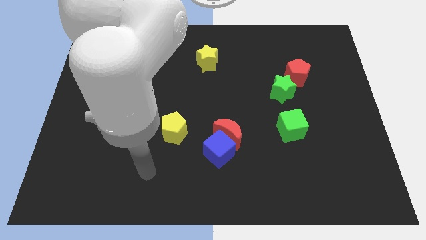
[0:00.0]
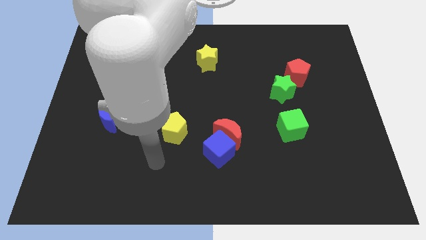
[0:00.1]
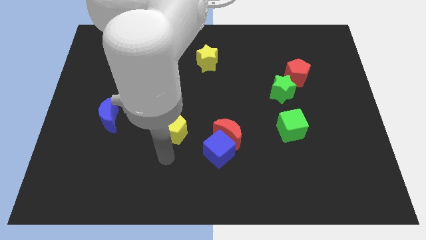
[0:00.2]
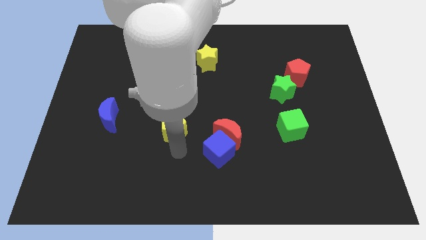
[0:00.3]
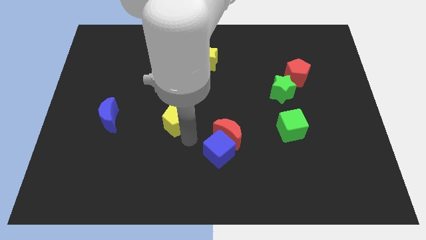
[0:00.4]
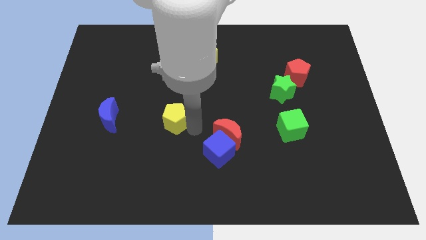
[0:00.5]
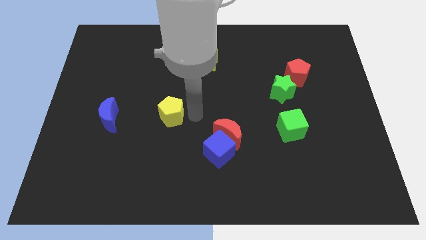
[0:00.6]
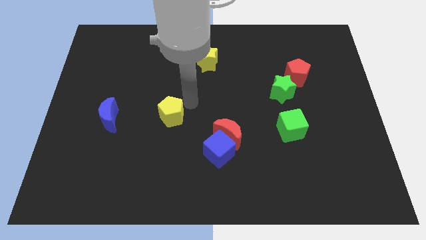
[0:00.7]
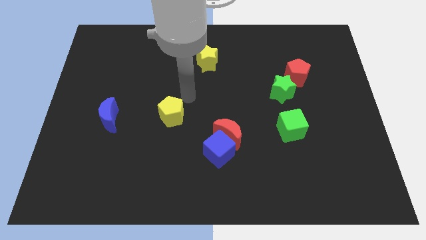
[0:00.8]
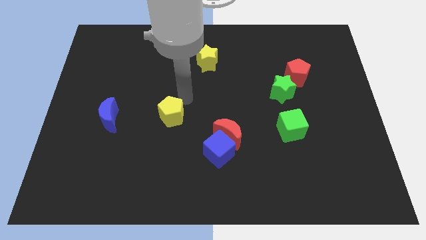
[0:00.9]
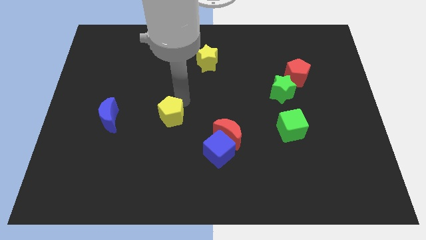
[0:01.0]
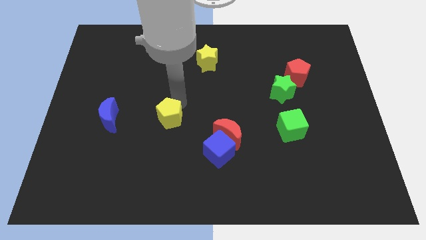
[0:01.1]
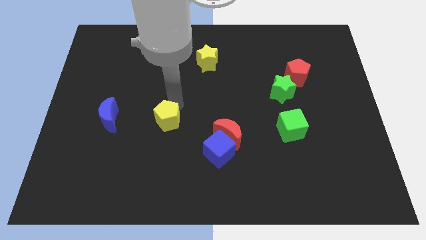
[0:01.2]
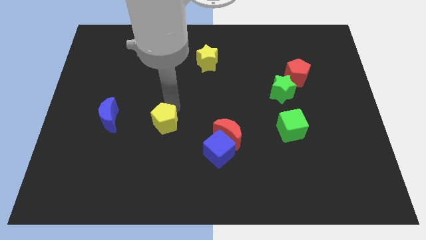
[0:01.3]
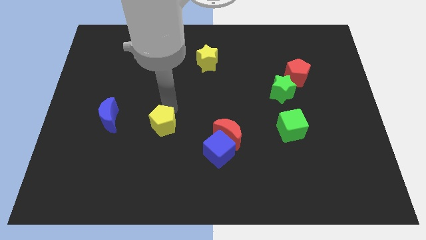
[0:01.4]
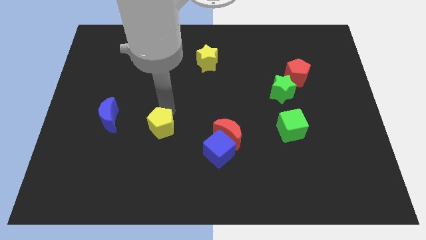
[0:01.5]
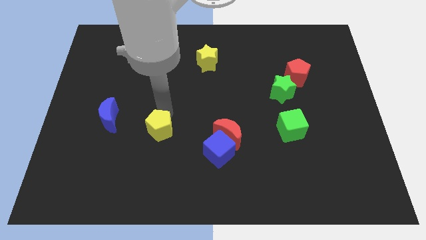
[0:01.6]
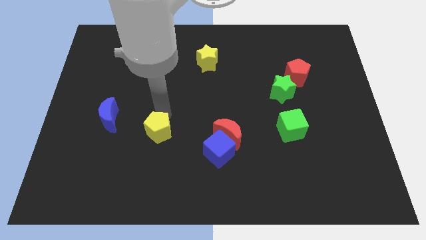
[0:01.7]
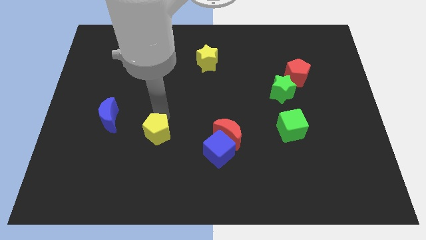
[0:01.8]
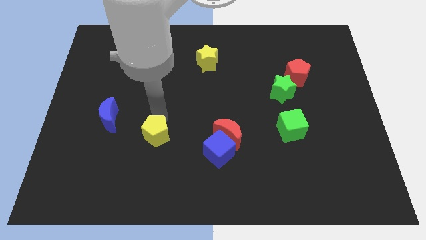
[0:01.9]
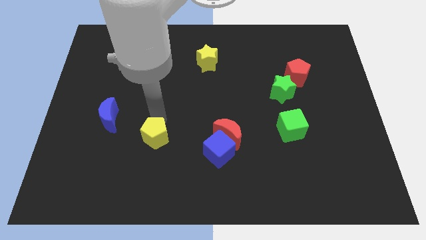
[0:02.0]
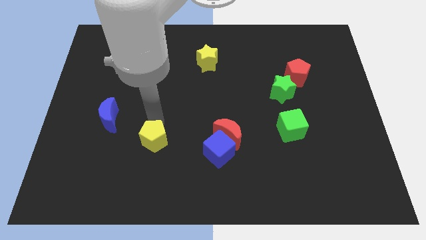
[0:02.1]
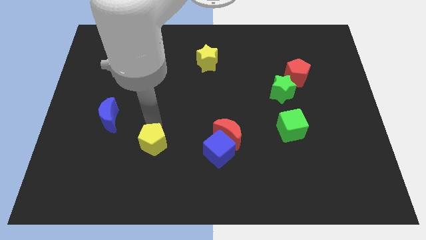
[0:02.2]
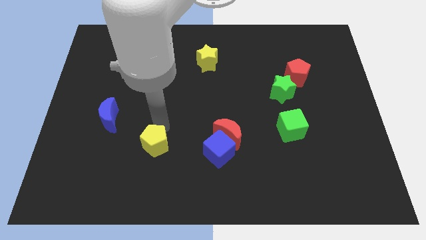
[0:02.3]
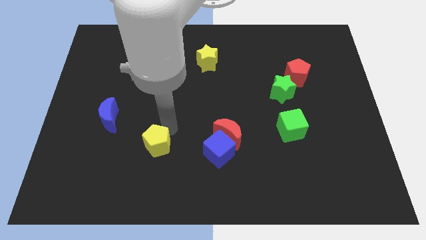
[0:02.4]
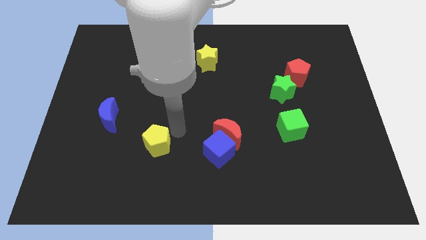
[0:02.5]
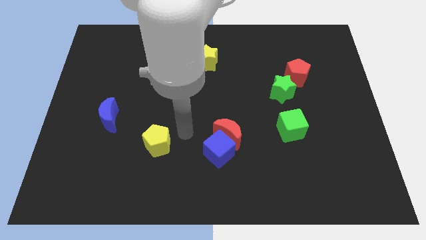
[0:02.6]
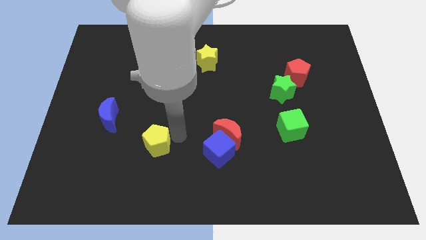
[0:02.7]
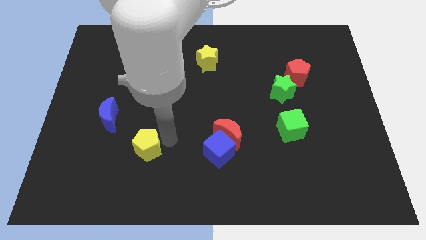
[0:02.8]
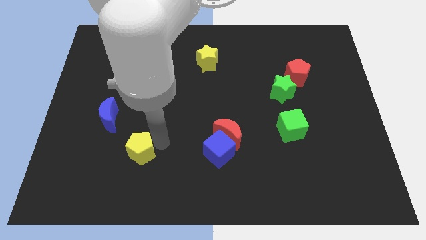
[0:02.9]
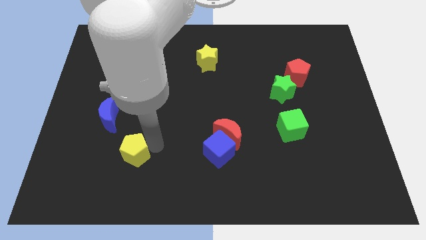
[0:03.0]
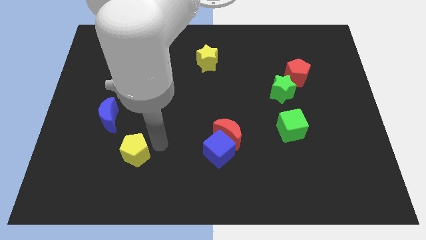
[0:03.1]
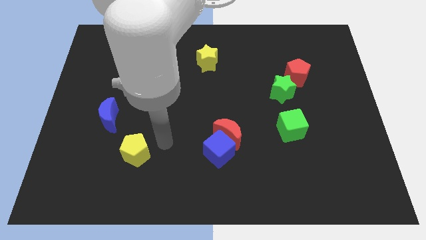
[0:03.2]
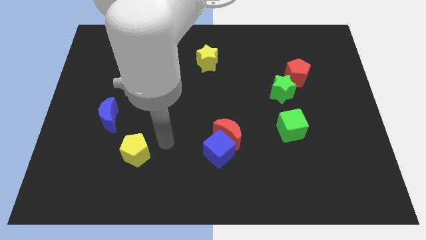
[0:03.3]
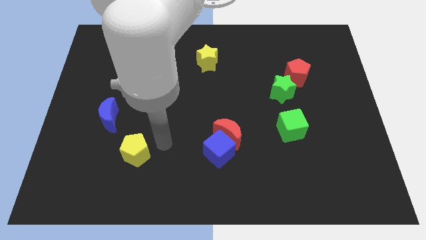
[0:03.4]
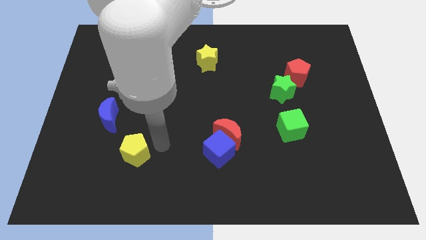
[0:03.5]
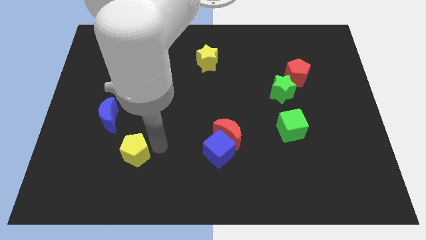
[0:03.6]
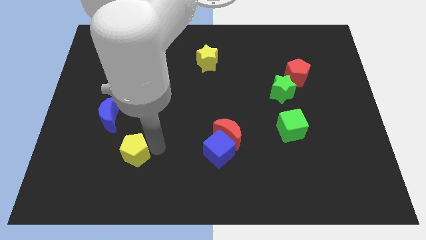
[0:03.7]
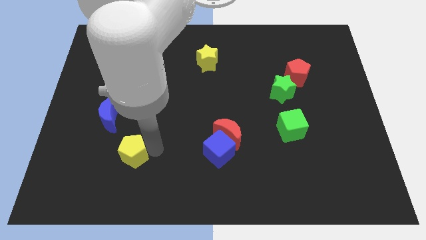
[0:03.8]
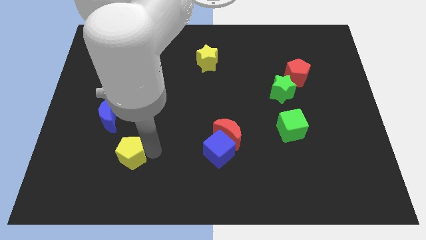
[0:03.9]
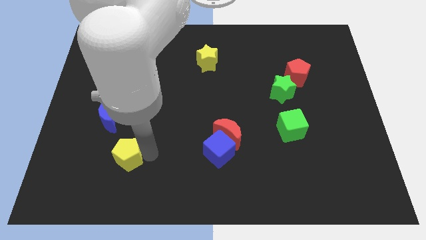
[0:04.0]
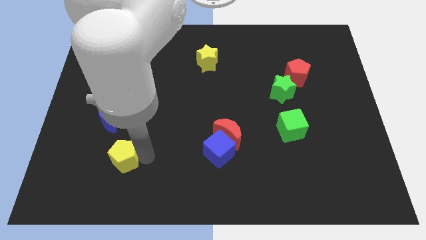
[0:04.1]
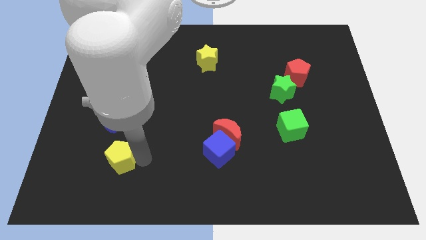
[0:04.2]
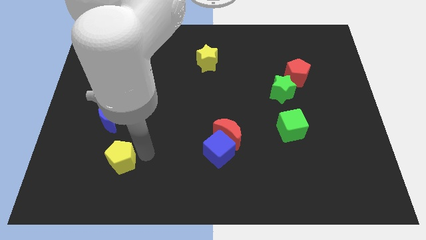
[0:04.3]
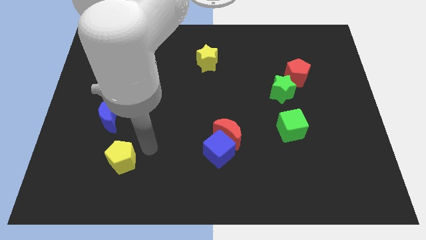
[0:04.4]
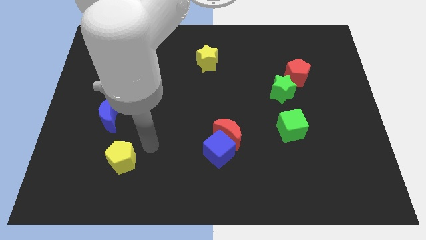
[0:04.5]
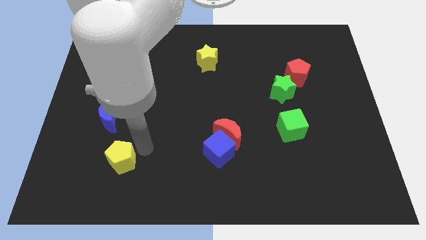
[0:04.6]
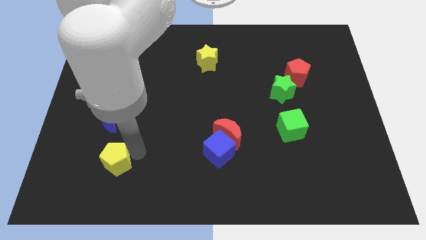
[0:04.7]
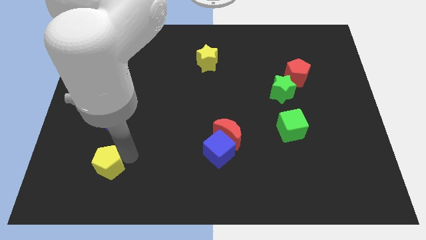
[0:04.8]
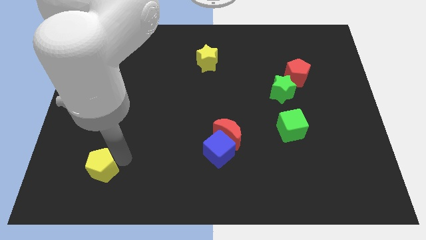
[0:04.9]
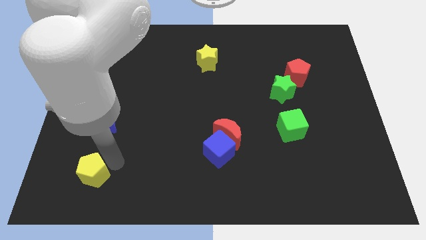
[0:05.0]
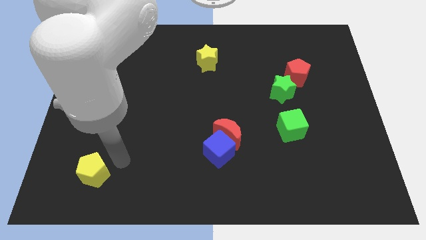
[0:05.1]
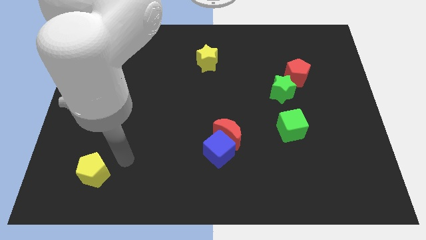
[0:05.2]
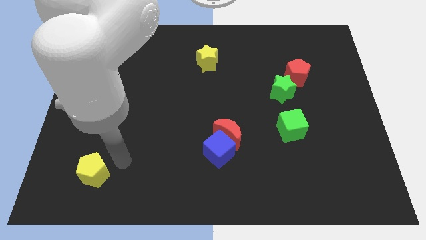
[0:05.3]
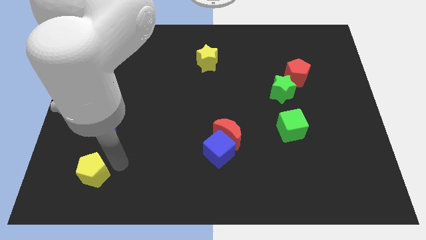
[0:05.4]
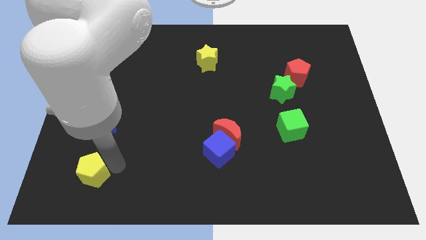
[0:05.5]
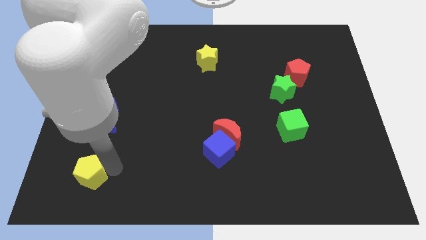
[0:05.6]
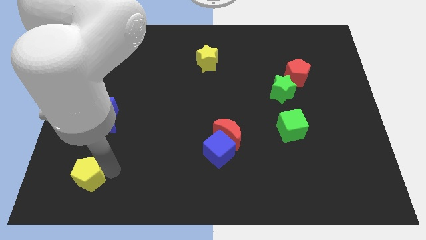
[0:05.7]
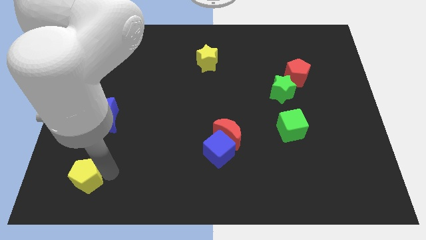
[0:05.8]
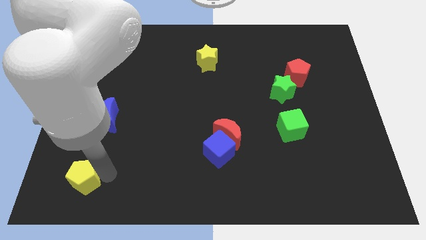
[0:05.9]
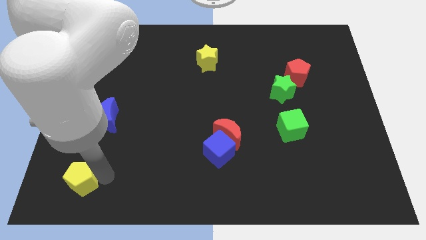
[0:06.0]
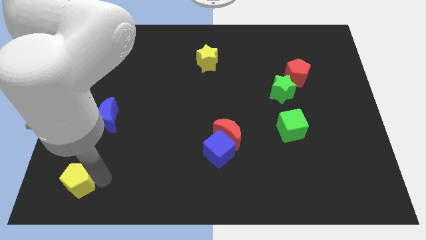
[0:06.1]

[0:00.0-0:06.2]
push the yellow pentagon to the bottom left
